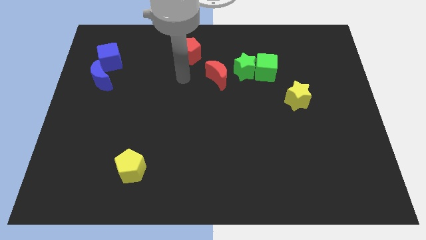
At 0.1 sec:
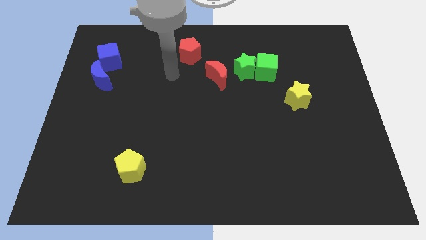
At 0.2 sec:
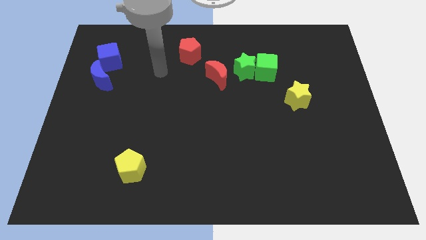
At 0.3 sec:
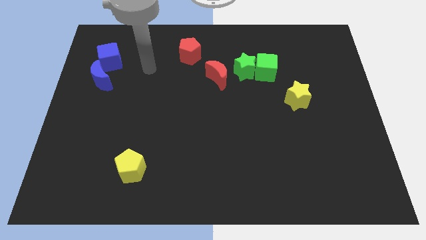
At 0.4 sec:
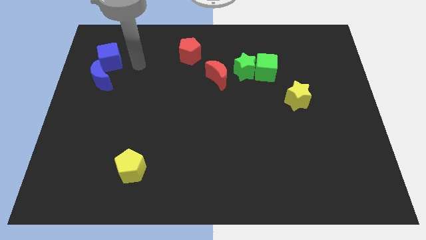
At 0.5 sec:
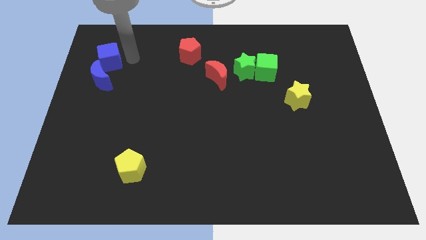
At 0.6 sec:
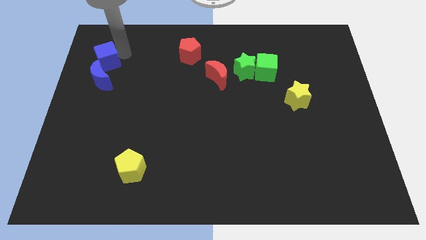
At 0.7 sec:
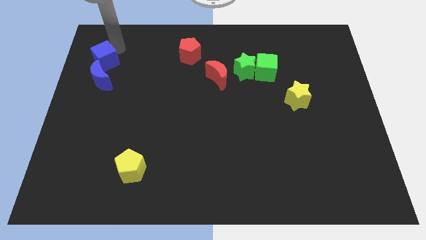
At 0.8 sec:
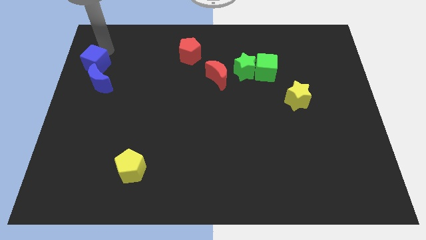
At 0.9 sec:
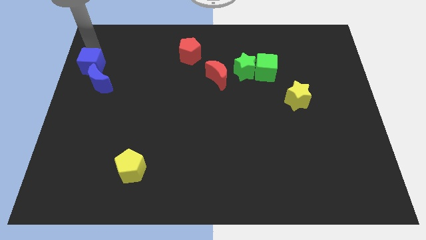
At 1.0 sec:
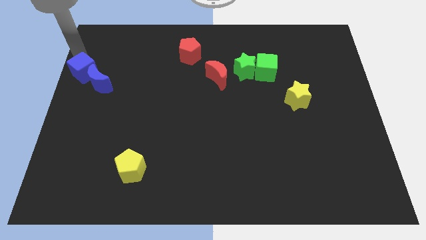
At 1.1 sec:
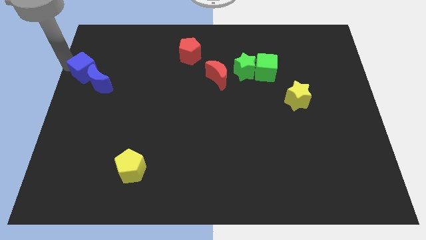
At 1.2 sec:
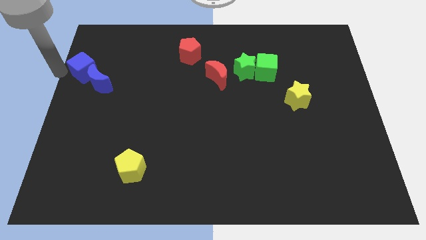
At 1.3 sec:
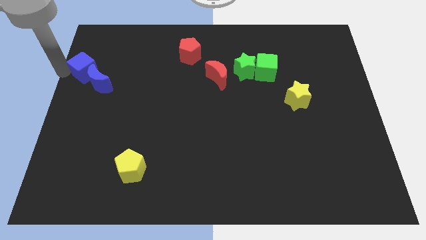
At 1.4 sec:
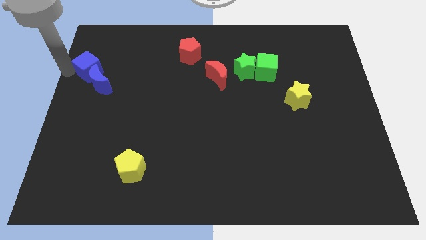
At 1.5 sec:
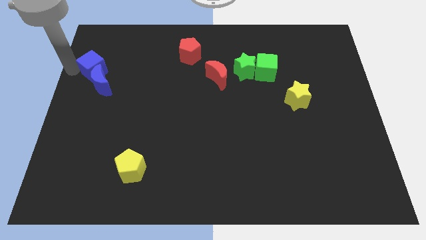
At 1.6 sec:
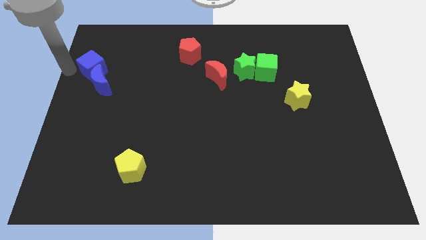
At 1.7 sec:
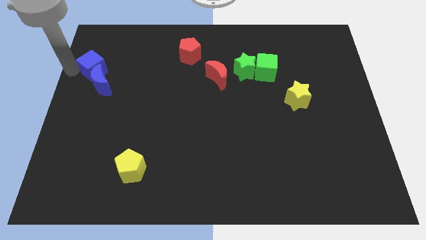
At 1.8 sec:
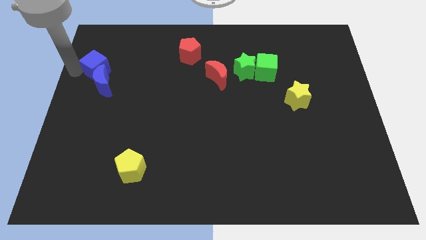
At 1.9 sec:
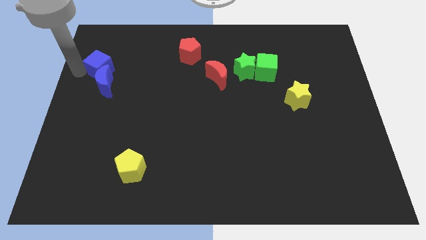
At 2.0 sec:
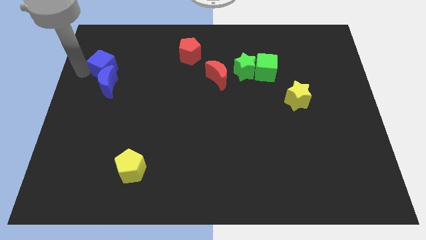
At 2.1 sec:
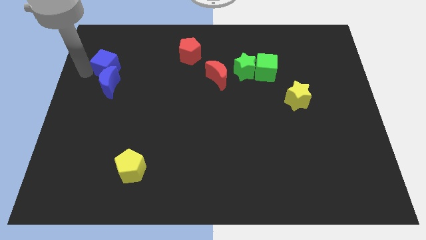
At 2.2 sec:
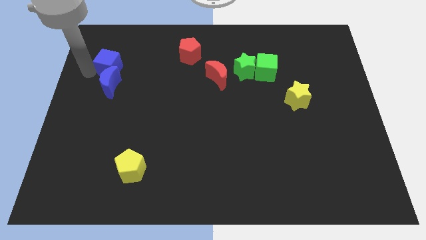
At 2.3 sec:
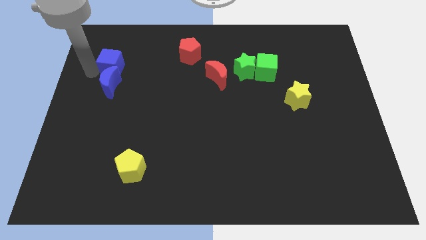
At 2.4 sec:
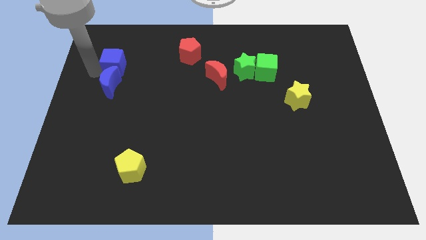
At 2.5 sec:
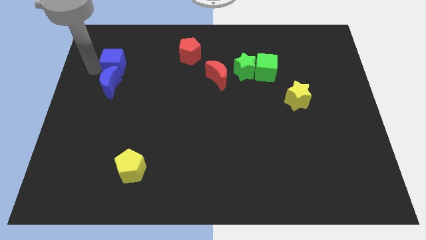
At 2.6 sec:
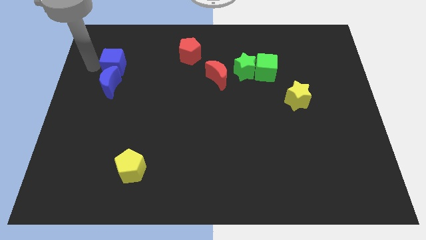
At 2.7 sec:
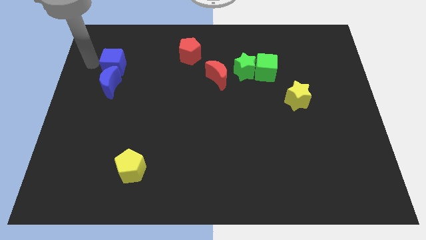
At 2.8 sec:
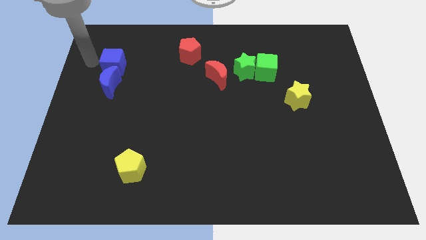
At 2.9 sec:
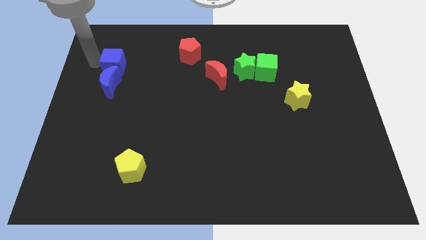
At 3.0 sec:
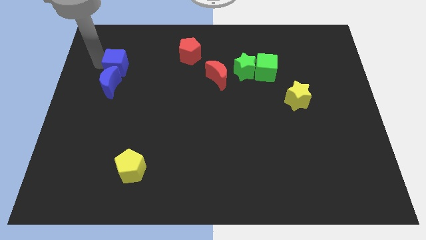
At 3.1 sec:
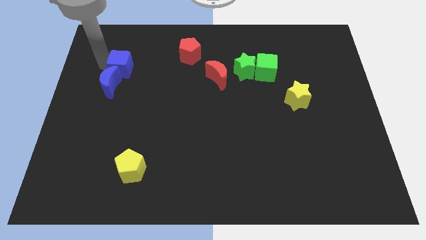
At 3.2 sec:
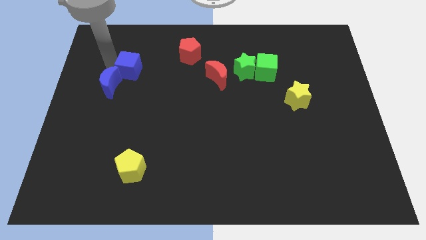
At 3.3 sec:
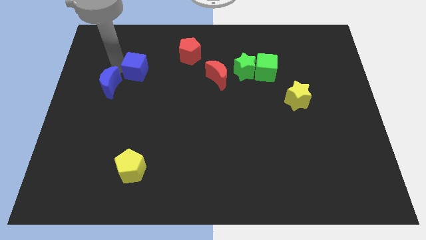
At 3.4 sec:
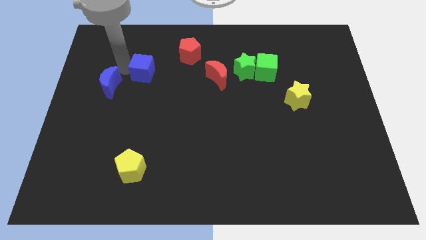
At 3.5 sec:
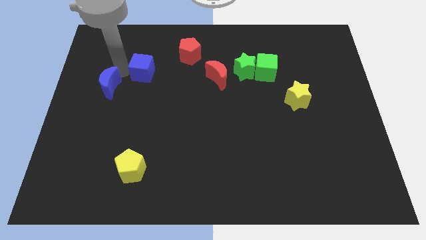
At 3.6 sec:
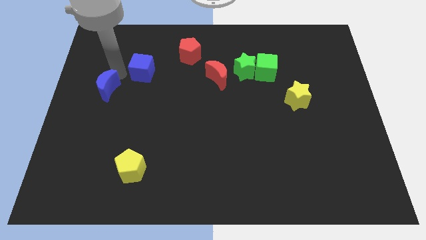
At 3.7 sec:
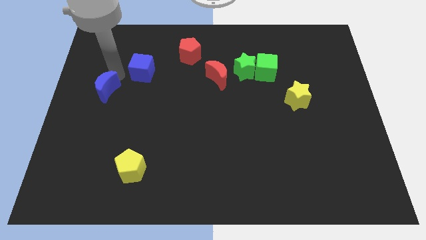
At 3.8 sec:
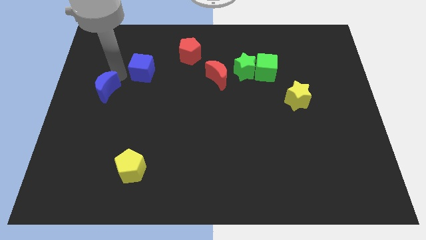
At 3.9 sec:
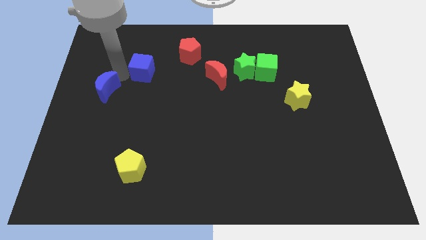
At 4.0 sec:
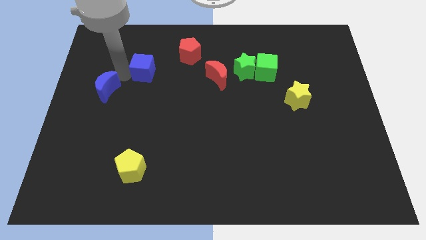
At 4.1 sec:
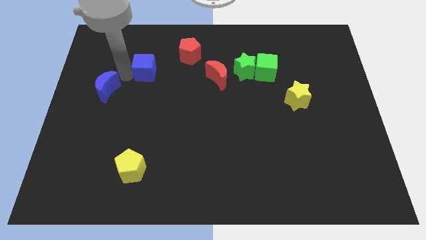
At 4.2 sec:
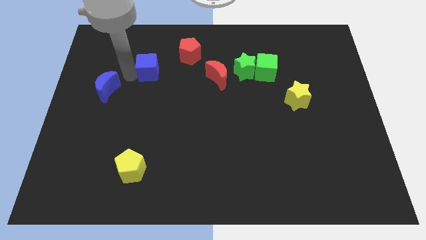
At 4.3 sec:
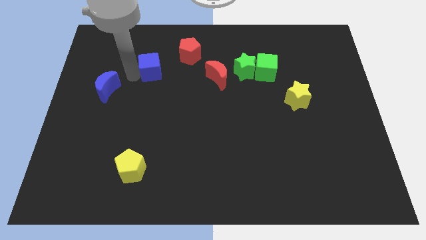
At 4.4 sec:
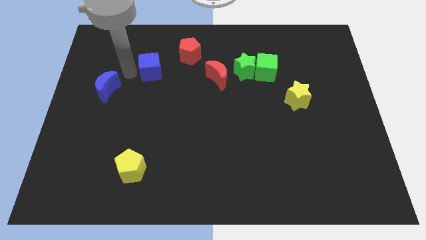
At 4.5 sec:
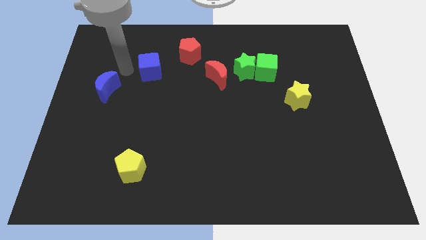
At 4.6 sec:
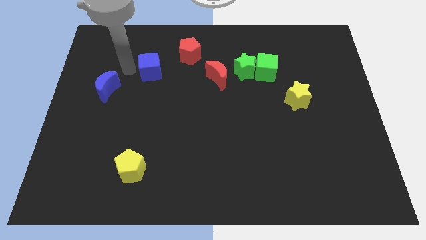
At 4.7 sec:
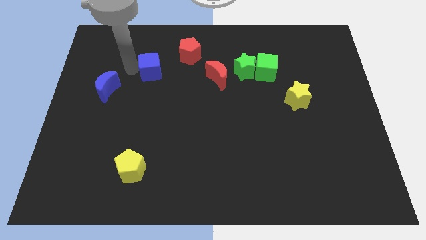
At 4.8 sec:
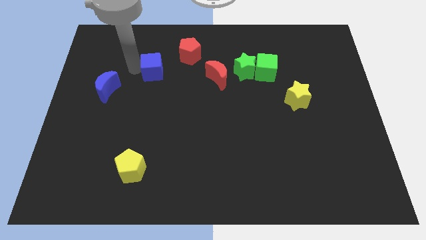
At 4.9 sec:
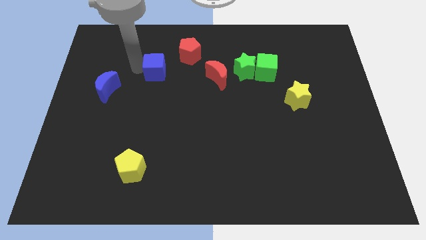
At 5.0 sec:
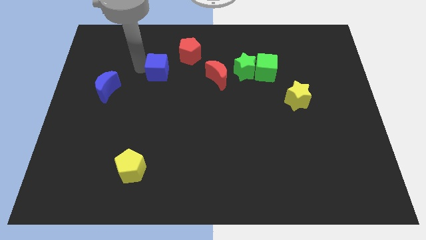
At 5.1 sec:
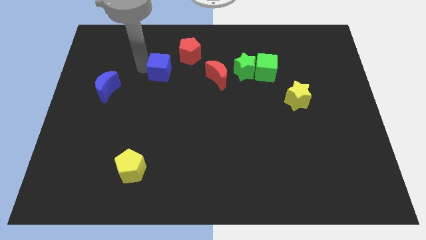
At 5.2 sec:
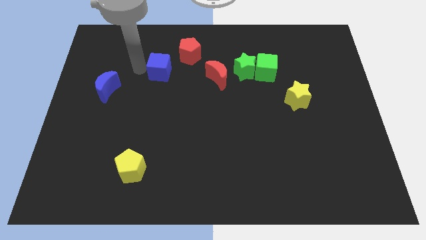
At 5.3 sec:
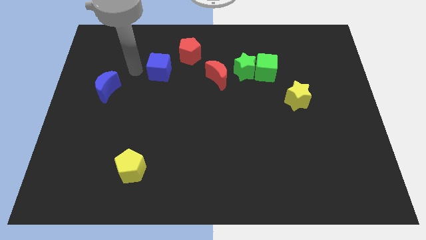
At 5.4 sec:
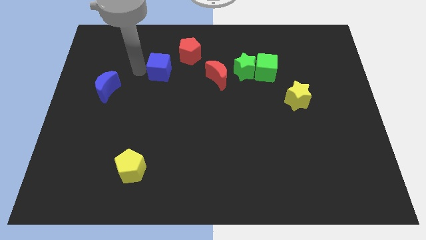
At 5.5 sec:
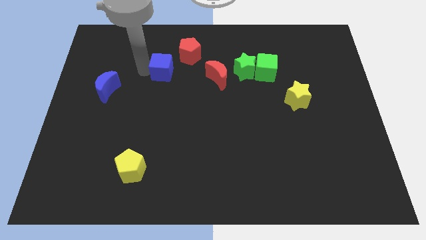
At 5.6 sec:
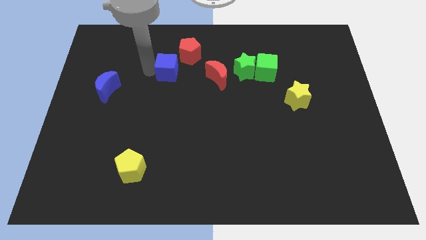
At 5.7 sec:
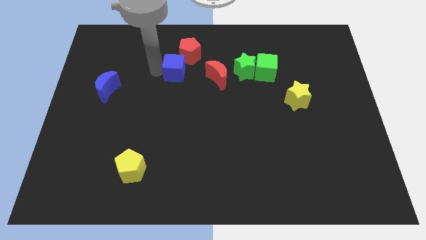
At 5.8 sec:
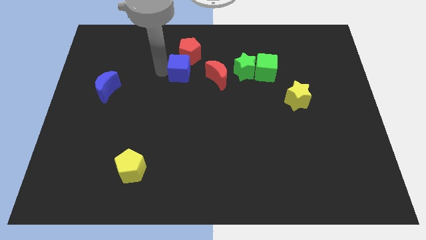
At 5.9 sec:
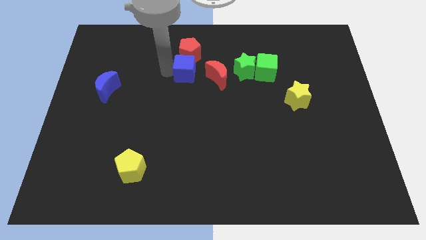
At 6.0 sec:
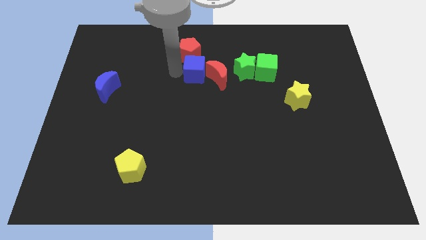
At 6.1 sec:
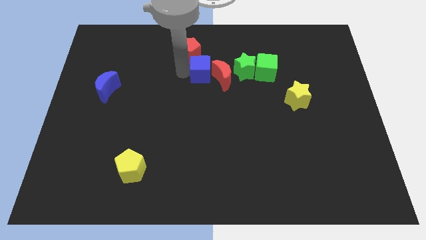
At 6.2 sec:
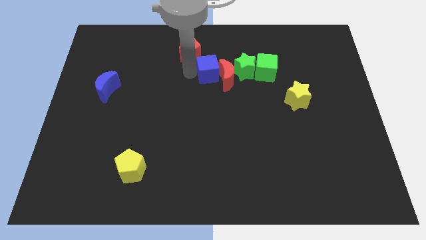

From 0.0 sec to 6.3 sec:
move the blue cube to the left of the green cube
